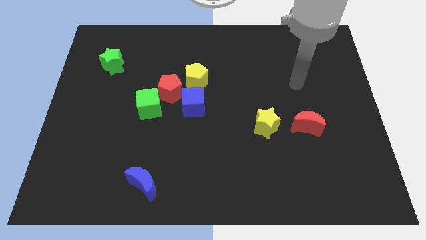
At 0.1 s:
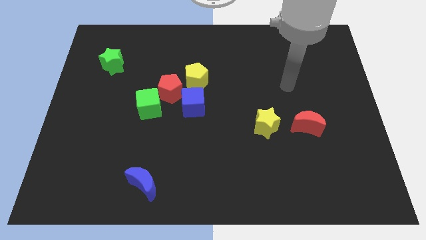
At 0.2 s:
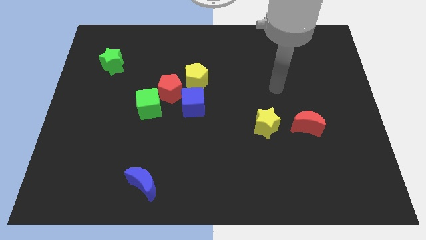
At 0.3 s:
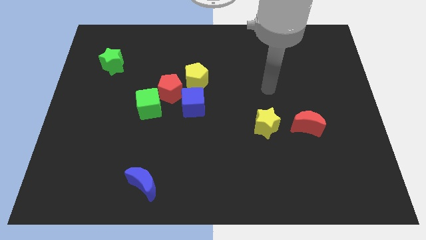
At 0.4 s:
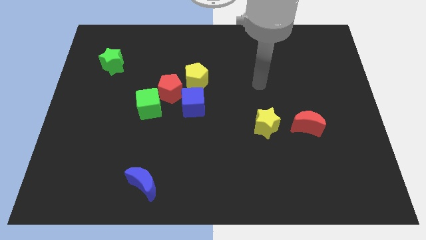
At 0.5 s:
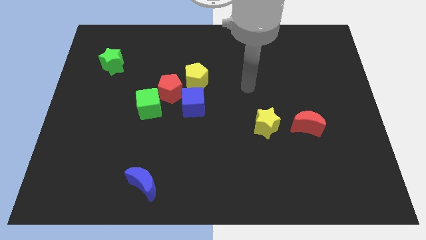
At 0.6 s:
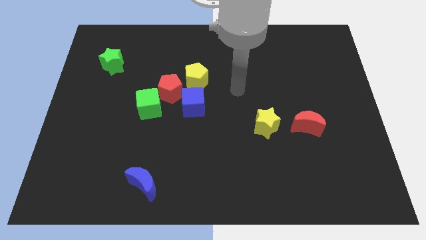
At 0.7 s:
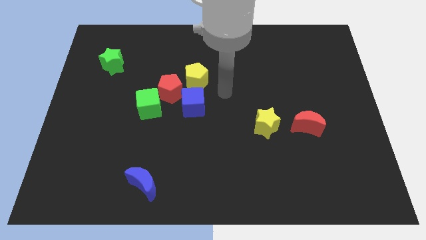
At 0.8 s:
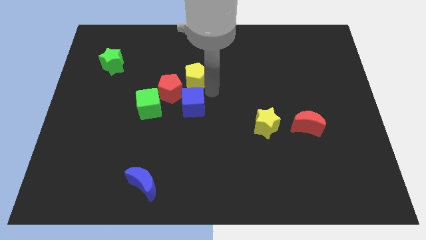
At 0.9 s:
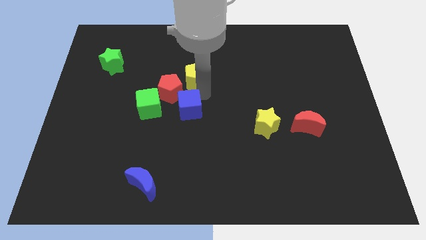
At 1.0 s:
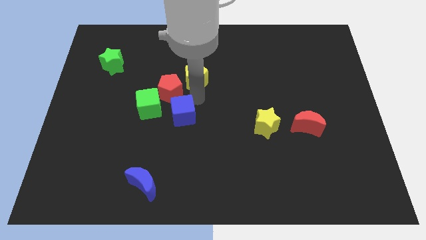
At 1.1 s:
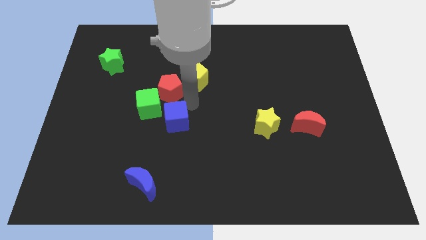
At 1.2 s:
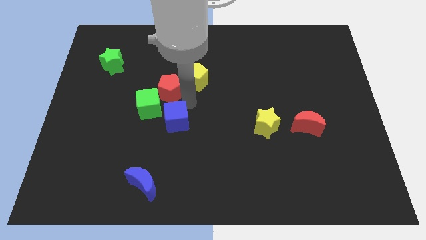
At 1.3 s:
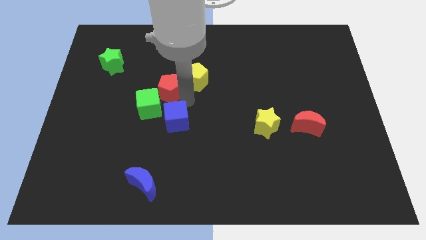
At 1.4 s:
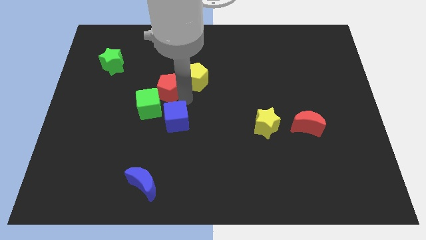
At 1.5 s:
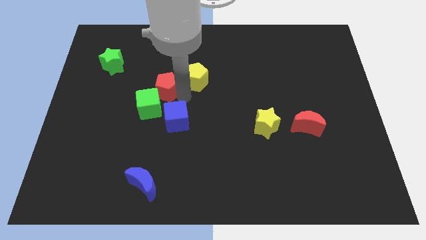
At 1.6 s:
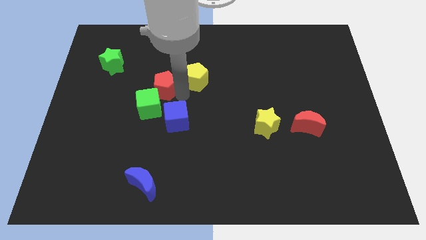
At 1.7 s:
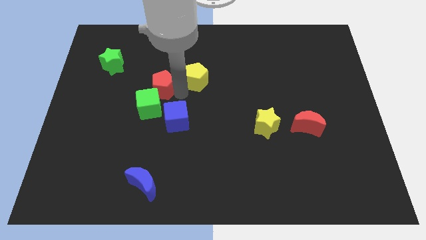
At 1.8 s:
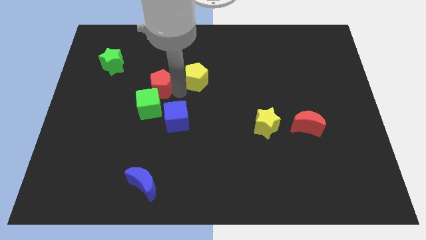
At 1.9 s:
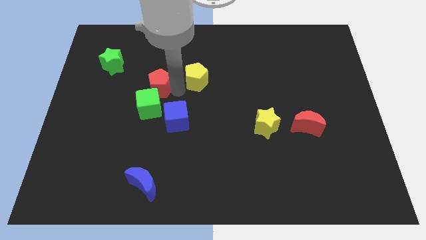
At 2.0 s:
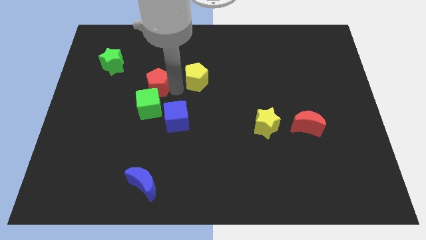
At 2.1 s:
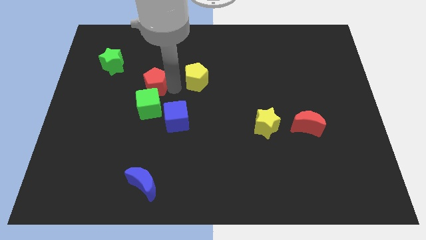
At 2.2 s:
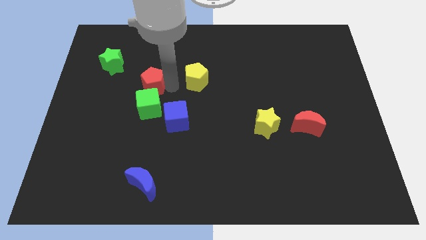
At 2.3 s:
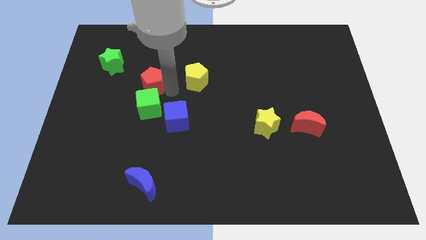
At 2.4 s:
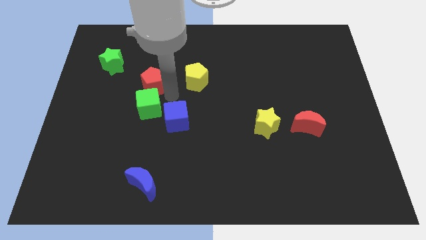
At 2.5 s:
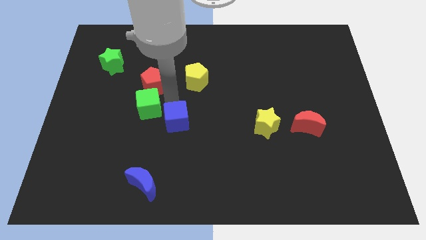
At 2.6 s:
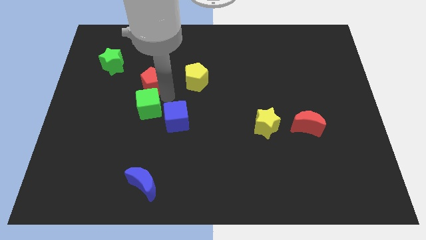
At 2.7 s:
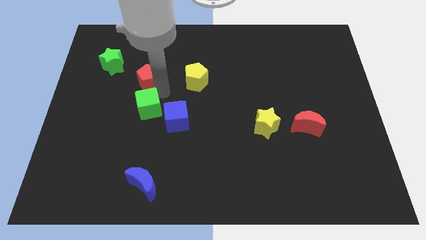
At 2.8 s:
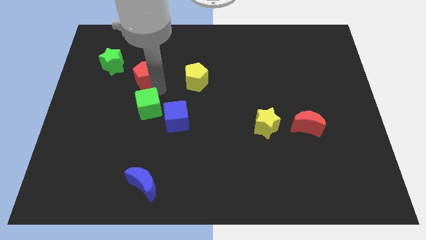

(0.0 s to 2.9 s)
pull the red pentagon apart from the green cube, yellow pentagon, and blue cube

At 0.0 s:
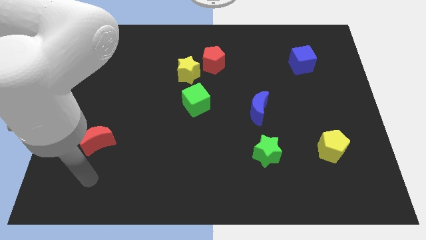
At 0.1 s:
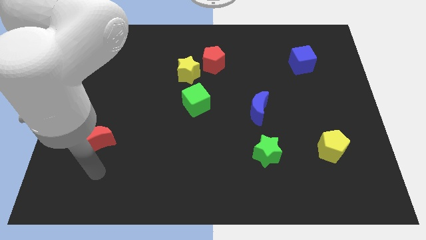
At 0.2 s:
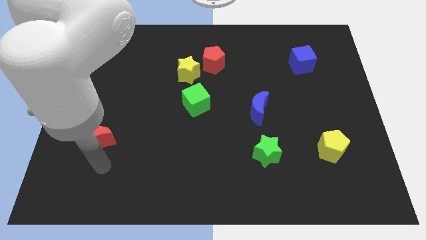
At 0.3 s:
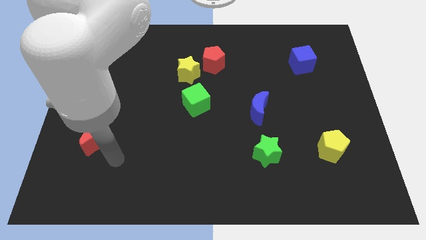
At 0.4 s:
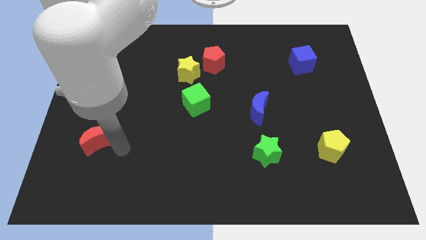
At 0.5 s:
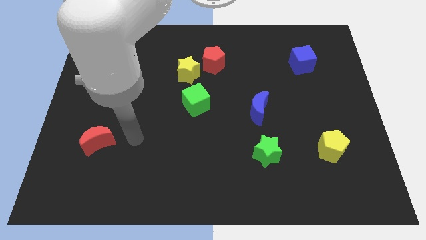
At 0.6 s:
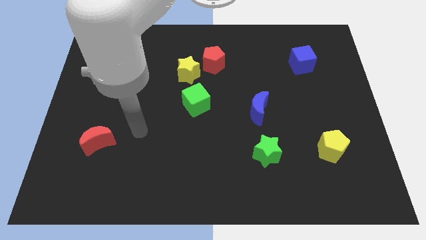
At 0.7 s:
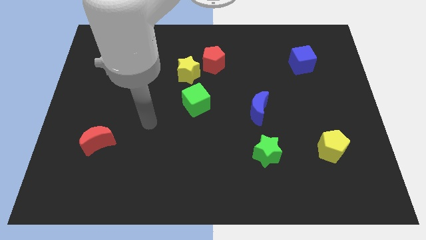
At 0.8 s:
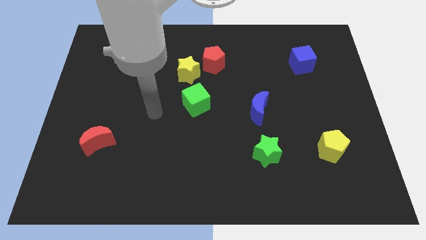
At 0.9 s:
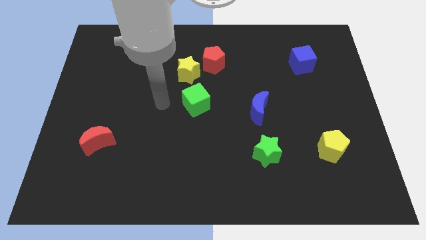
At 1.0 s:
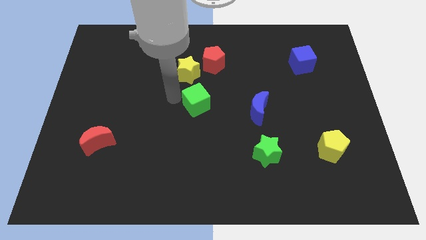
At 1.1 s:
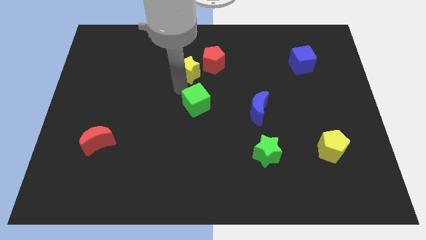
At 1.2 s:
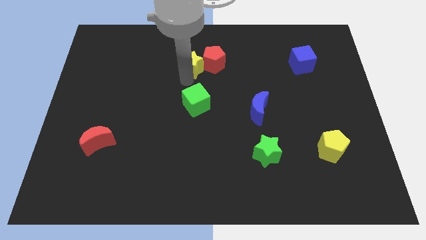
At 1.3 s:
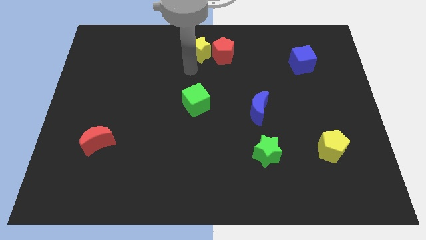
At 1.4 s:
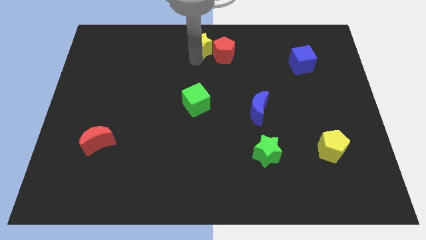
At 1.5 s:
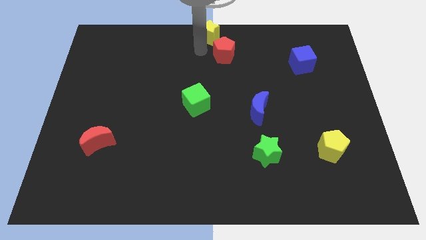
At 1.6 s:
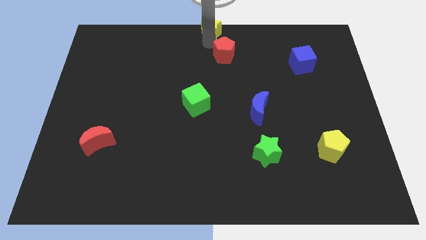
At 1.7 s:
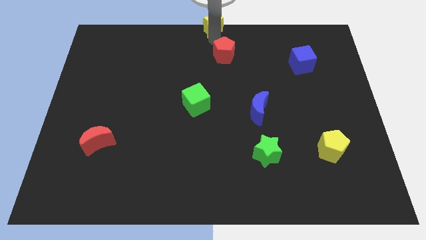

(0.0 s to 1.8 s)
separate the red pentagon from the yellow star

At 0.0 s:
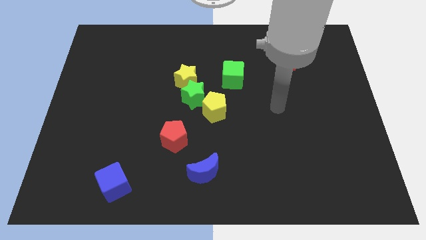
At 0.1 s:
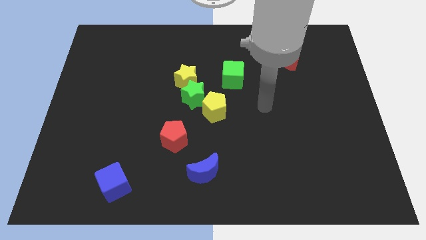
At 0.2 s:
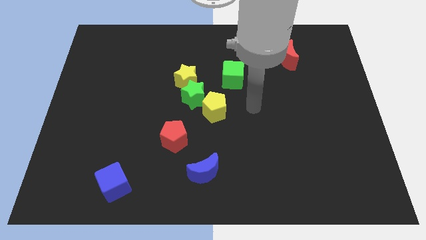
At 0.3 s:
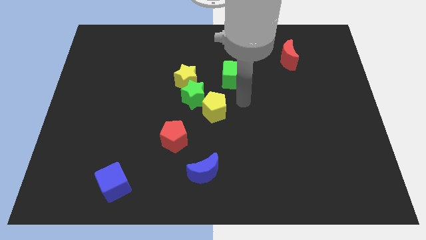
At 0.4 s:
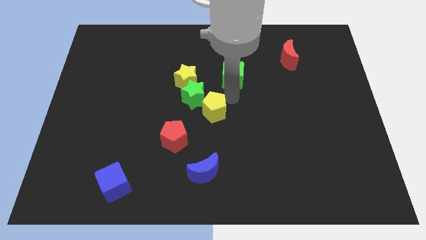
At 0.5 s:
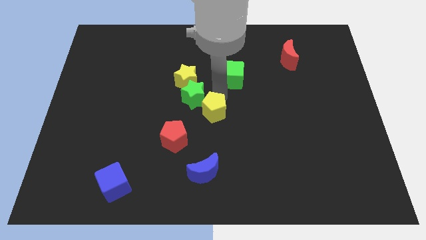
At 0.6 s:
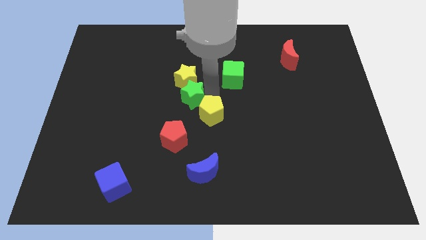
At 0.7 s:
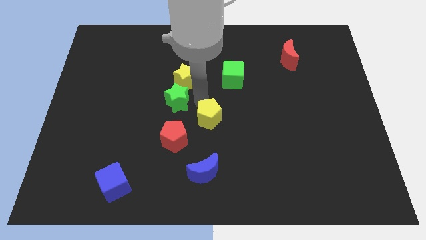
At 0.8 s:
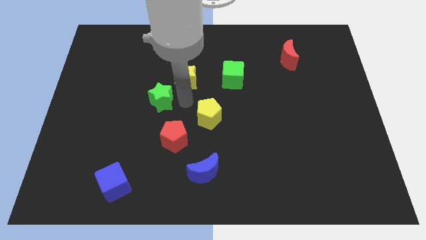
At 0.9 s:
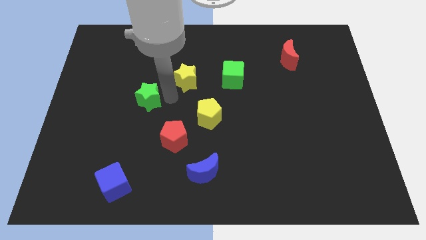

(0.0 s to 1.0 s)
pull the yellow star apart from the green star

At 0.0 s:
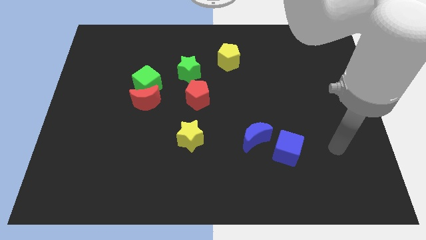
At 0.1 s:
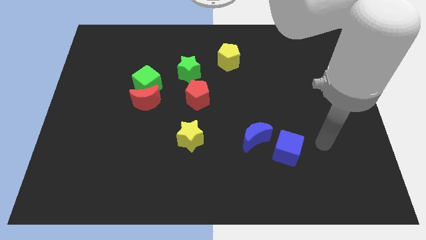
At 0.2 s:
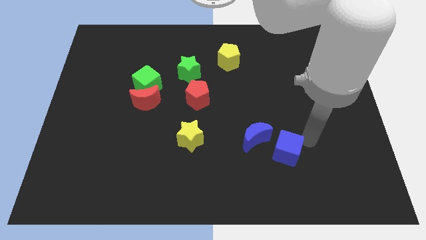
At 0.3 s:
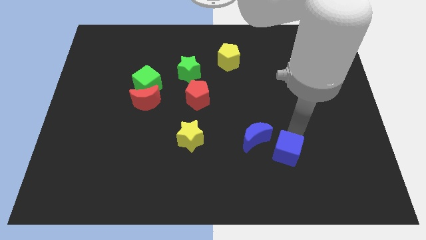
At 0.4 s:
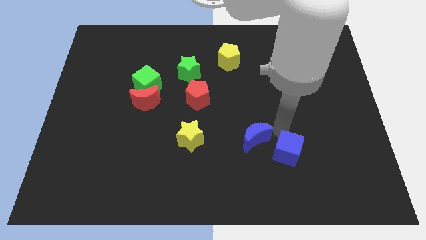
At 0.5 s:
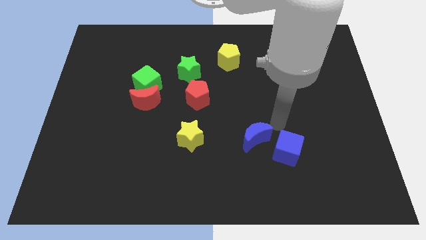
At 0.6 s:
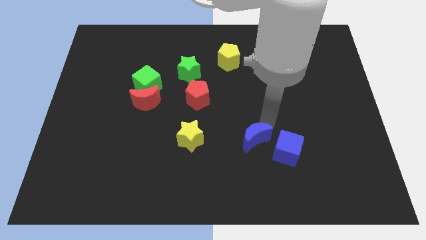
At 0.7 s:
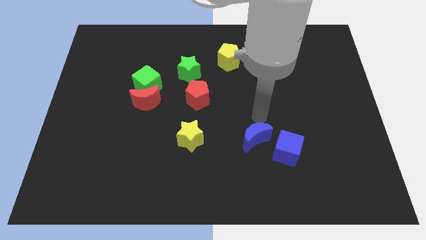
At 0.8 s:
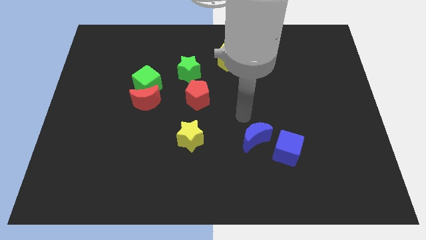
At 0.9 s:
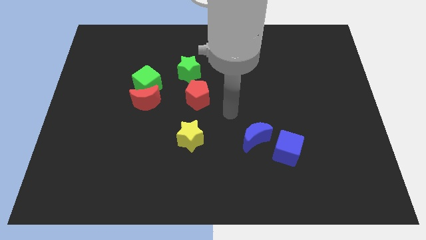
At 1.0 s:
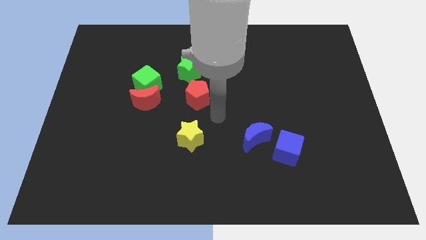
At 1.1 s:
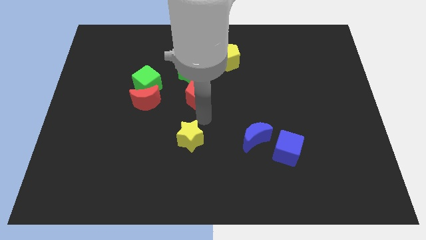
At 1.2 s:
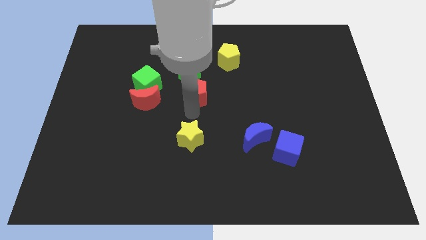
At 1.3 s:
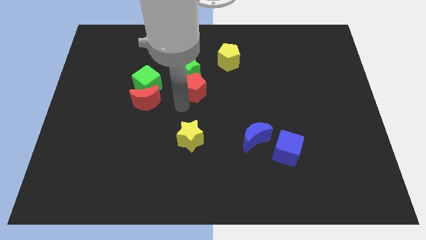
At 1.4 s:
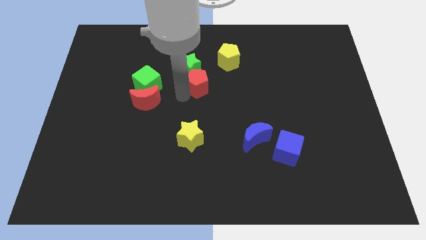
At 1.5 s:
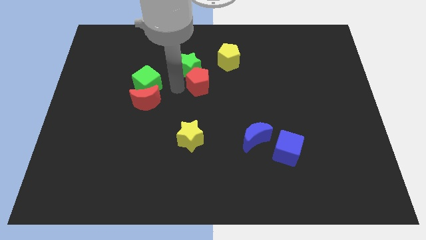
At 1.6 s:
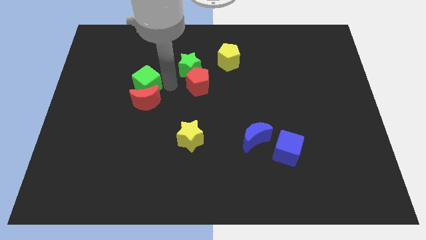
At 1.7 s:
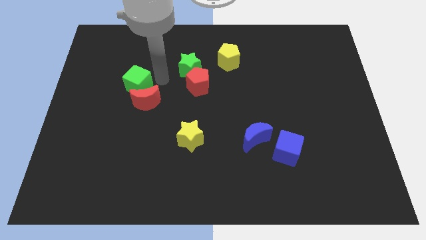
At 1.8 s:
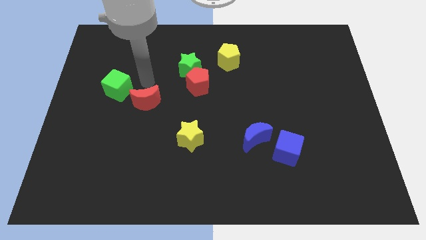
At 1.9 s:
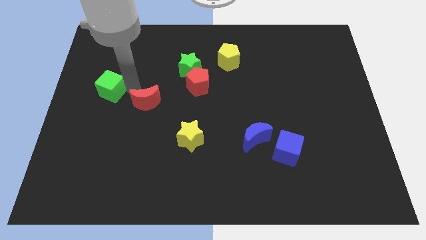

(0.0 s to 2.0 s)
pull the red moon apart from the green cube

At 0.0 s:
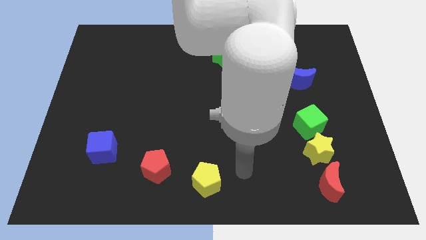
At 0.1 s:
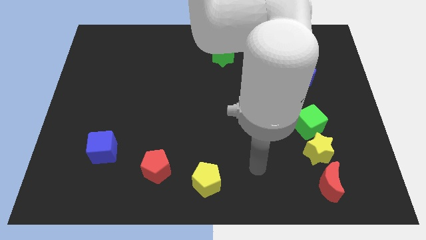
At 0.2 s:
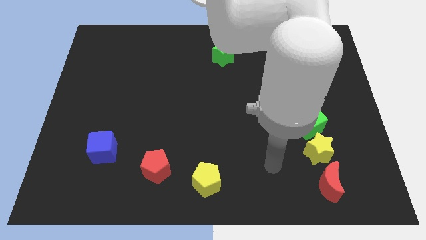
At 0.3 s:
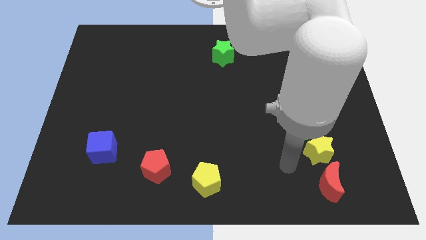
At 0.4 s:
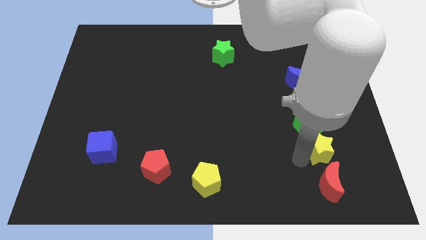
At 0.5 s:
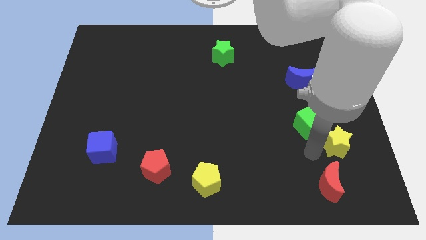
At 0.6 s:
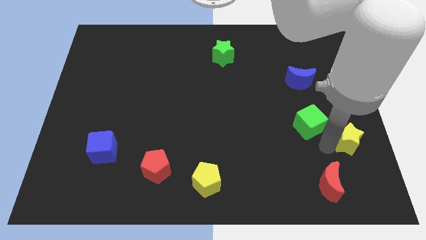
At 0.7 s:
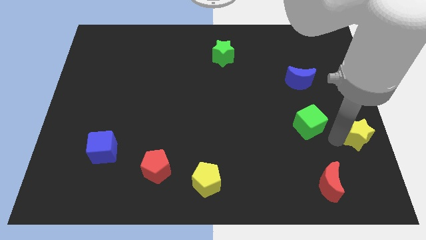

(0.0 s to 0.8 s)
move the green cube away from the yellow star

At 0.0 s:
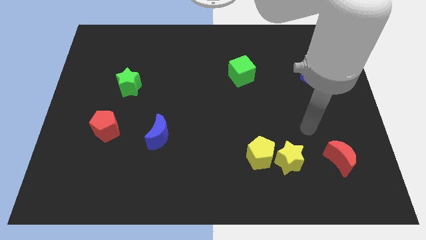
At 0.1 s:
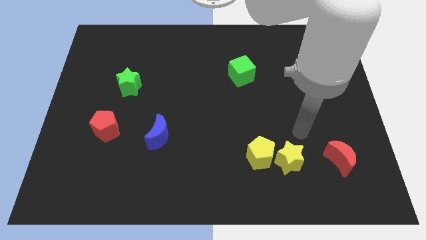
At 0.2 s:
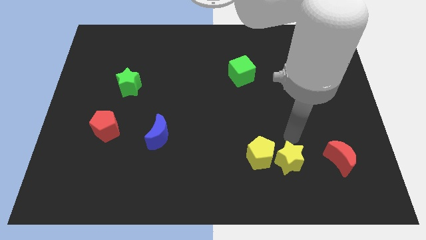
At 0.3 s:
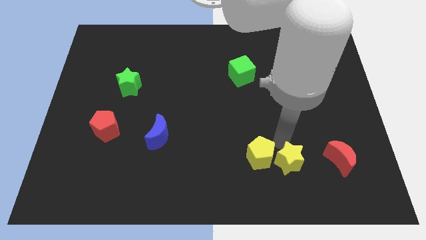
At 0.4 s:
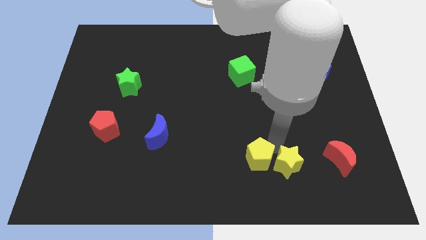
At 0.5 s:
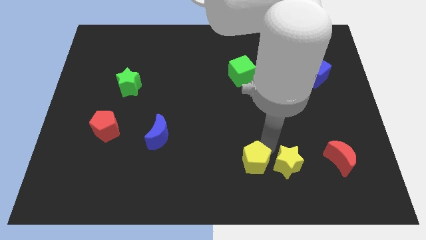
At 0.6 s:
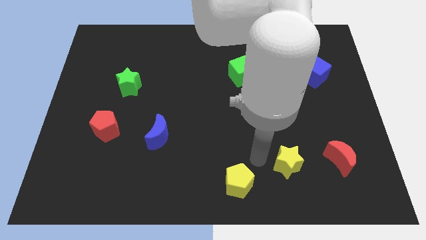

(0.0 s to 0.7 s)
move the yellow star away from the yellow pentagon
